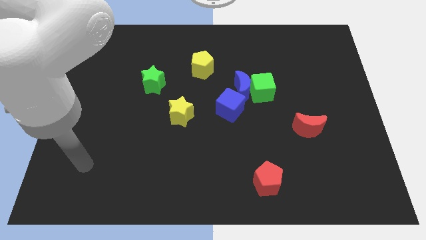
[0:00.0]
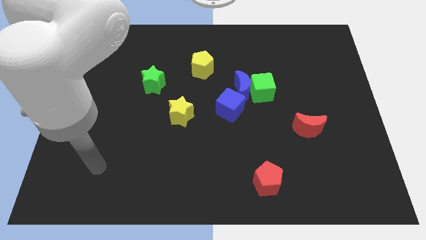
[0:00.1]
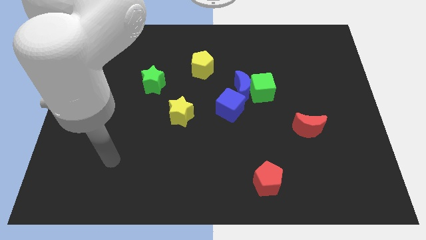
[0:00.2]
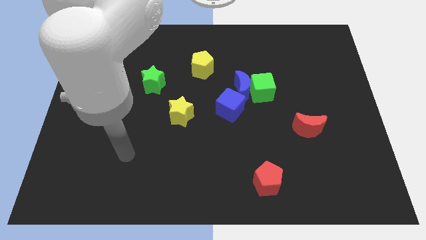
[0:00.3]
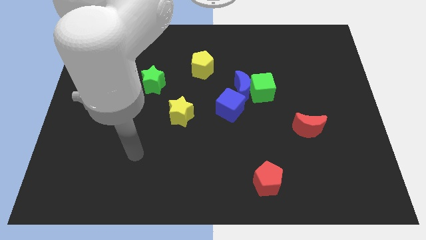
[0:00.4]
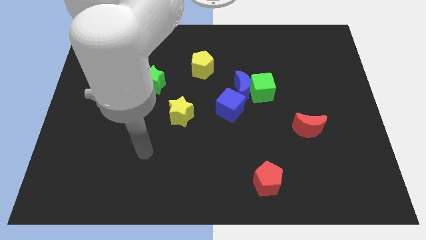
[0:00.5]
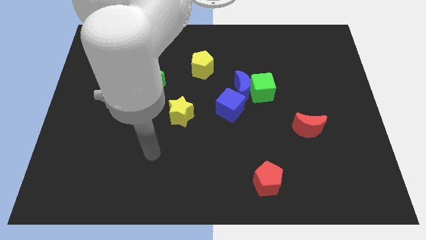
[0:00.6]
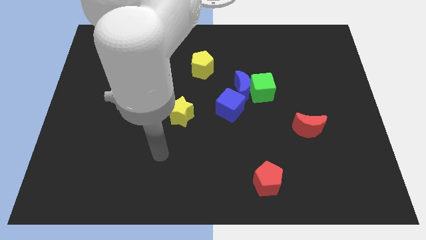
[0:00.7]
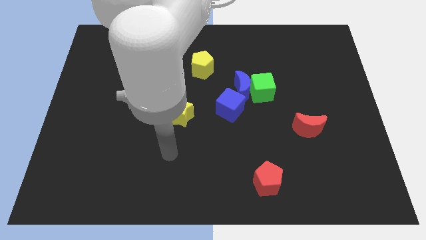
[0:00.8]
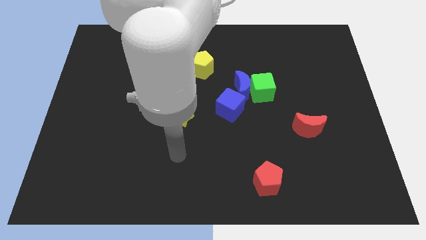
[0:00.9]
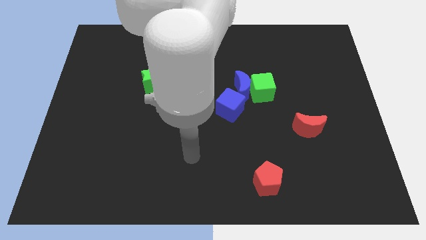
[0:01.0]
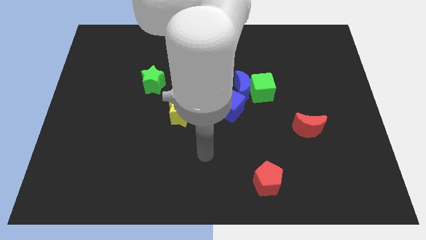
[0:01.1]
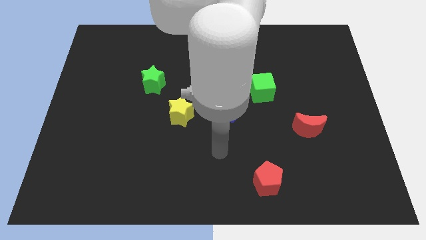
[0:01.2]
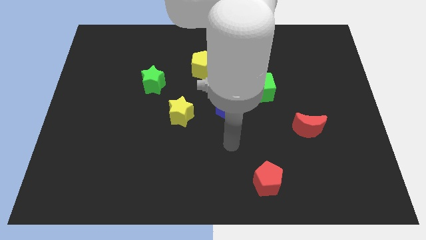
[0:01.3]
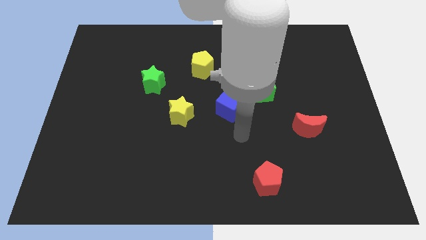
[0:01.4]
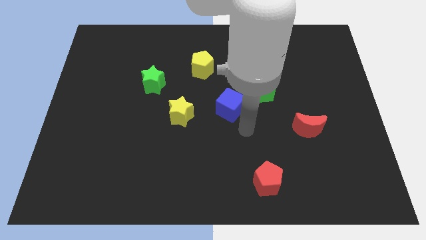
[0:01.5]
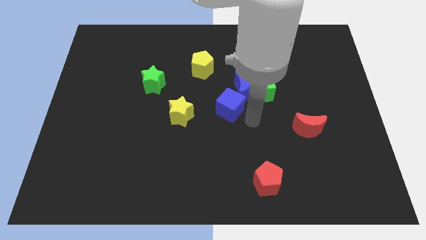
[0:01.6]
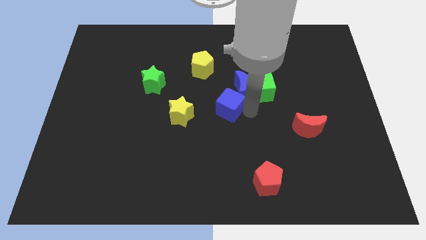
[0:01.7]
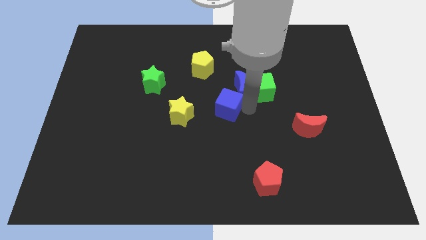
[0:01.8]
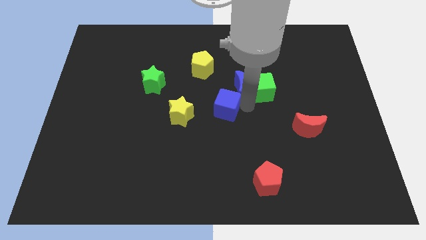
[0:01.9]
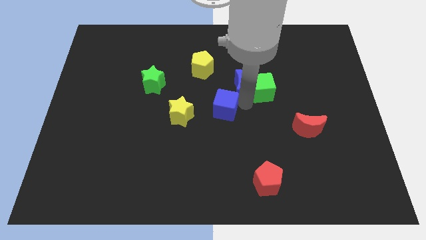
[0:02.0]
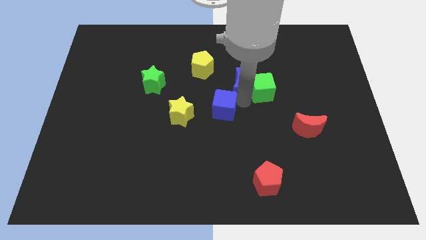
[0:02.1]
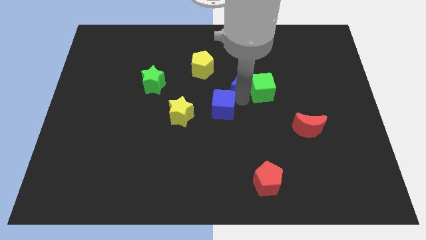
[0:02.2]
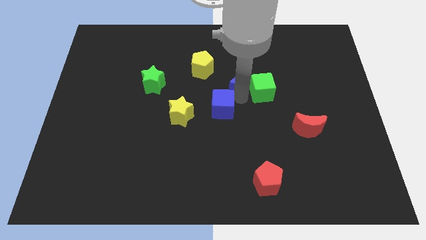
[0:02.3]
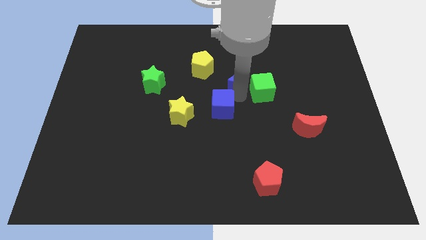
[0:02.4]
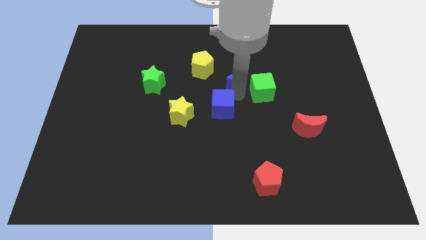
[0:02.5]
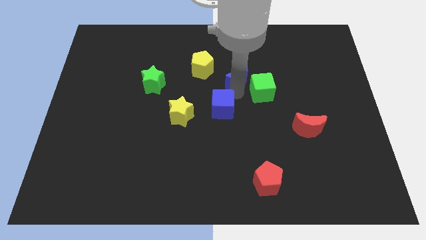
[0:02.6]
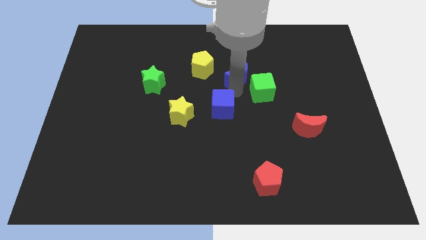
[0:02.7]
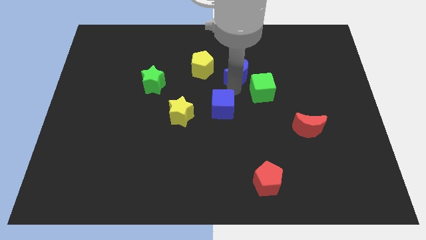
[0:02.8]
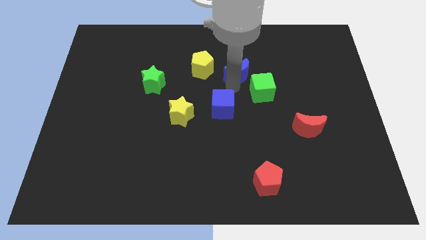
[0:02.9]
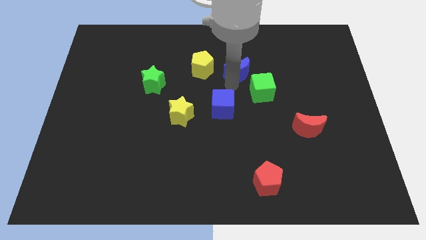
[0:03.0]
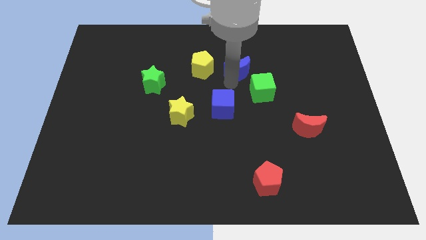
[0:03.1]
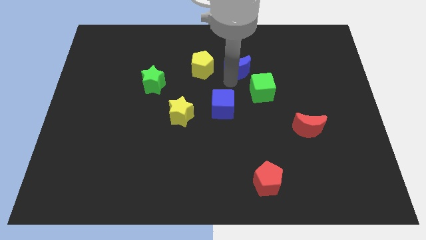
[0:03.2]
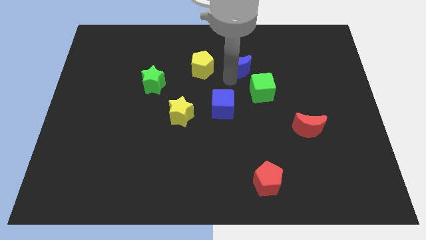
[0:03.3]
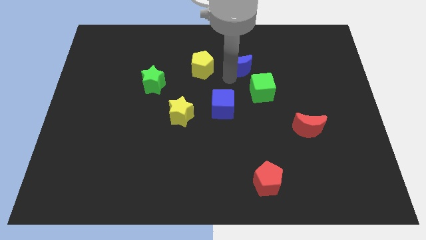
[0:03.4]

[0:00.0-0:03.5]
pull the blue moon apart from the green cube and blue cube

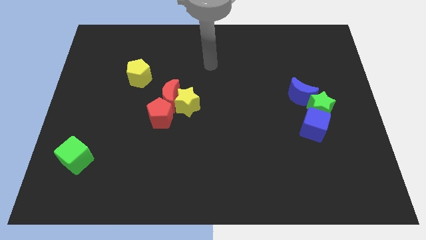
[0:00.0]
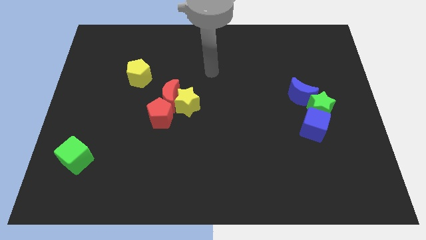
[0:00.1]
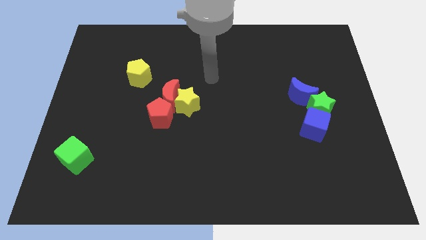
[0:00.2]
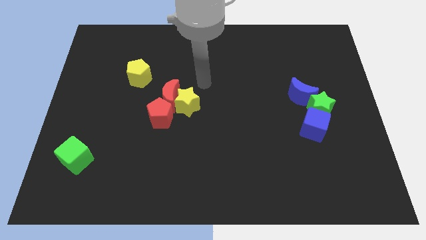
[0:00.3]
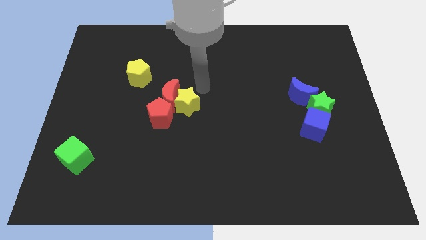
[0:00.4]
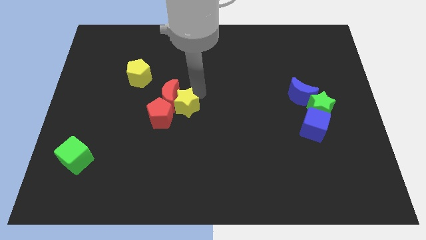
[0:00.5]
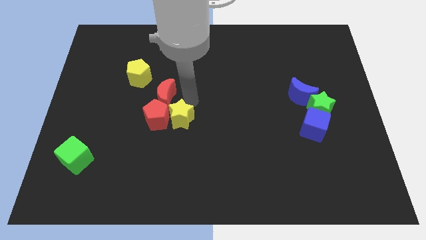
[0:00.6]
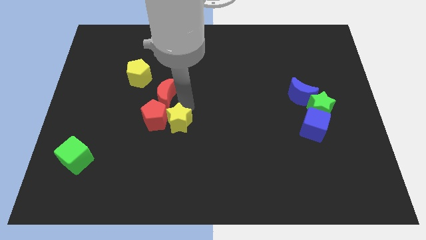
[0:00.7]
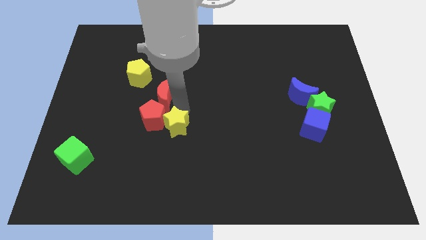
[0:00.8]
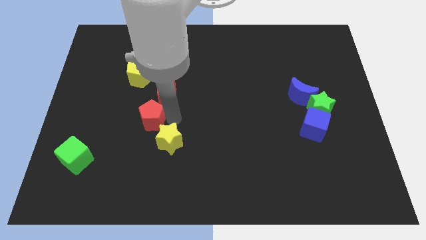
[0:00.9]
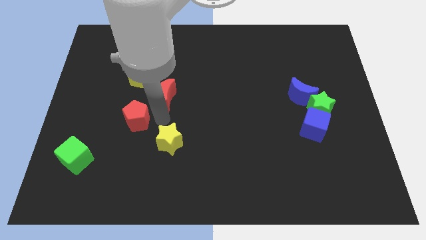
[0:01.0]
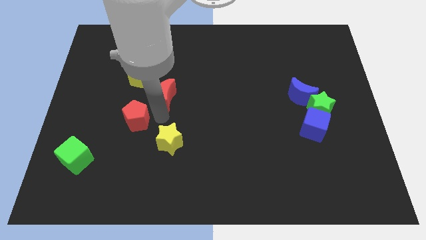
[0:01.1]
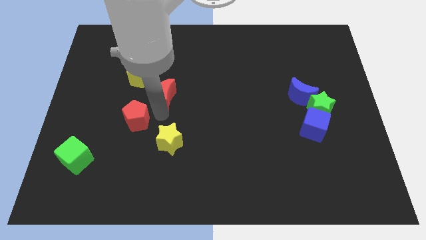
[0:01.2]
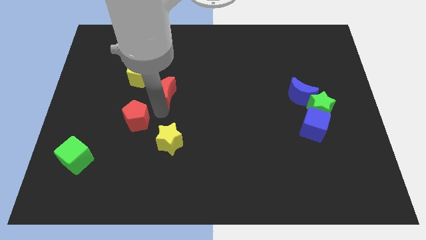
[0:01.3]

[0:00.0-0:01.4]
move the red moon away from the yellow star and red pentagon

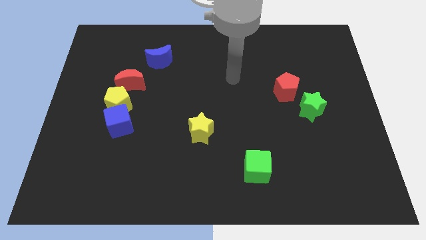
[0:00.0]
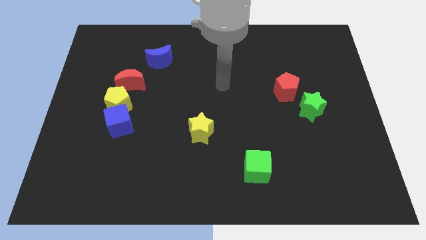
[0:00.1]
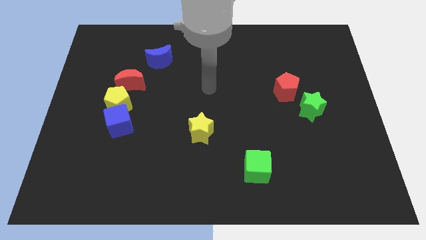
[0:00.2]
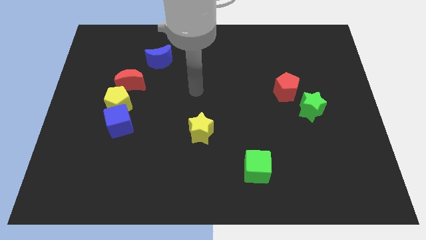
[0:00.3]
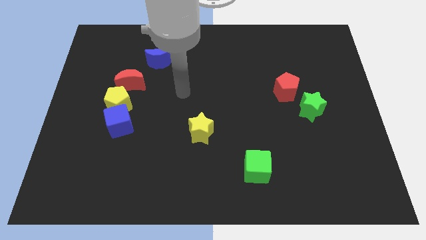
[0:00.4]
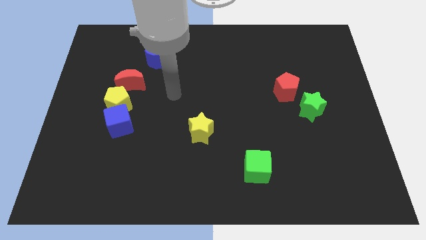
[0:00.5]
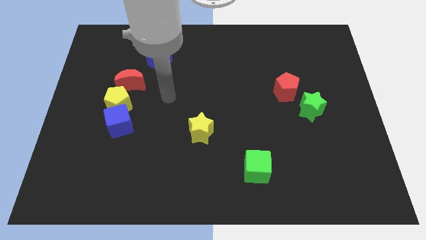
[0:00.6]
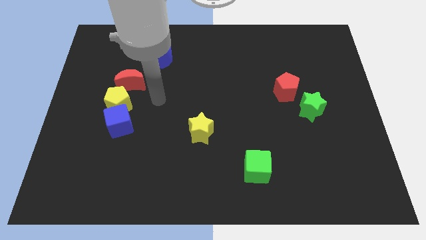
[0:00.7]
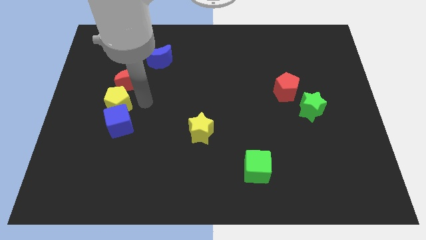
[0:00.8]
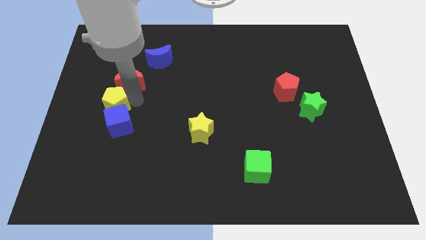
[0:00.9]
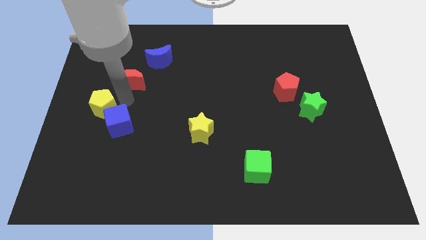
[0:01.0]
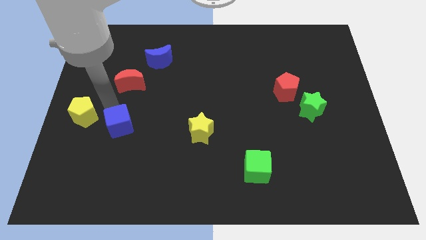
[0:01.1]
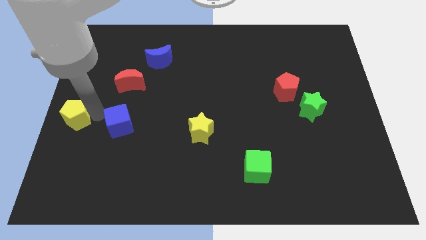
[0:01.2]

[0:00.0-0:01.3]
move the blue cube away from the yellow pentagon

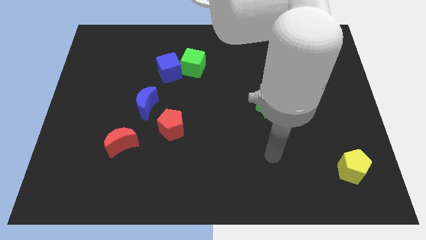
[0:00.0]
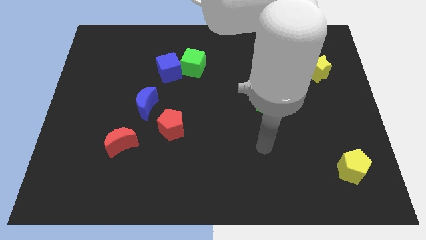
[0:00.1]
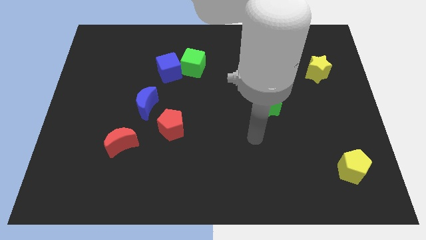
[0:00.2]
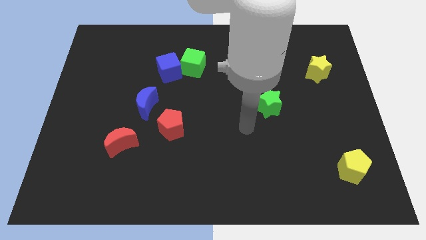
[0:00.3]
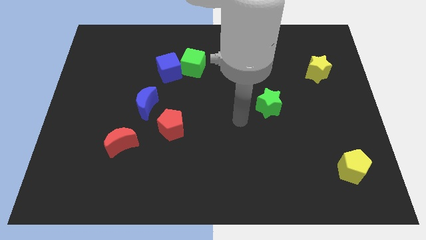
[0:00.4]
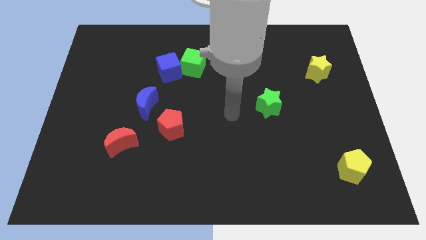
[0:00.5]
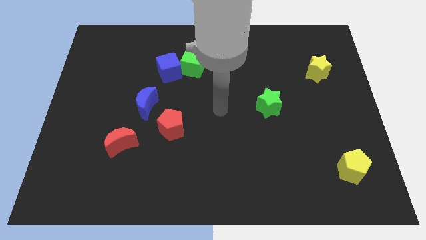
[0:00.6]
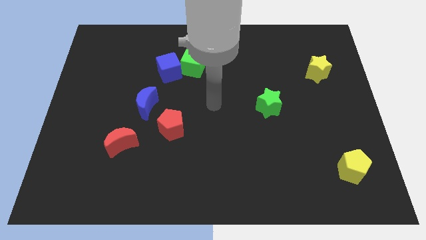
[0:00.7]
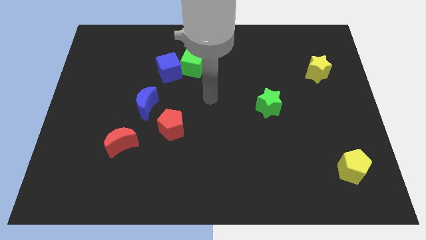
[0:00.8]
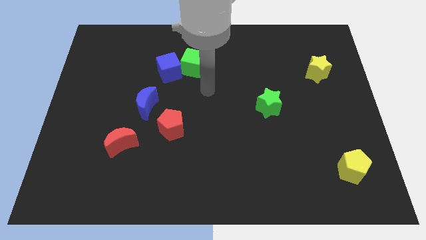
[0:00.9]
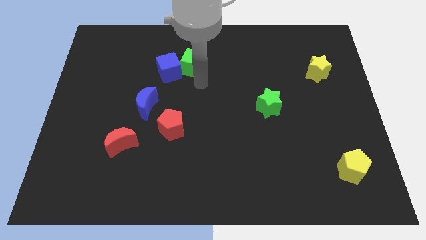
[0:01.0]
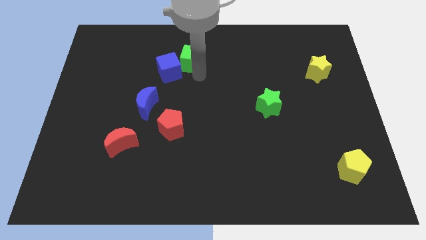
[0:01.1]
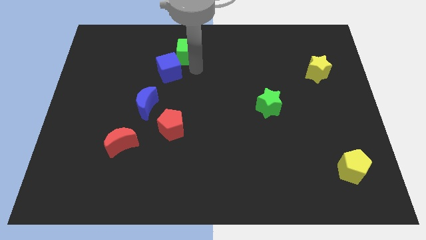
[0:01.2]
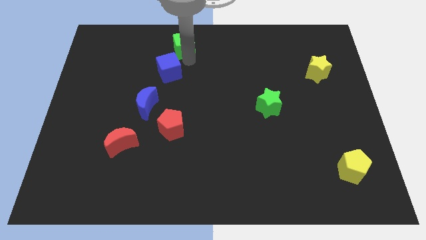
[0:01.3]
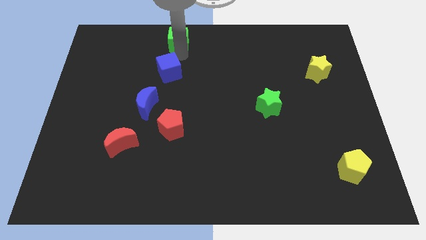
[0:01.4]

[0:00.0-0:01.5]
pull the blue cube apart from the green cube

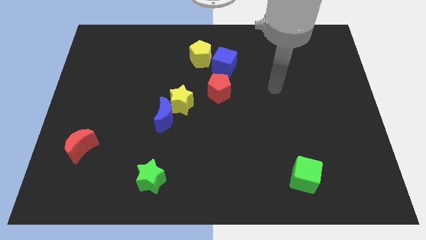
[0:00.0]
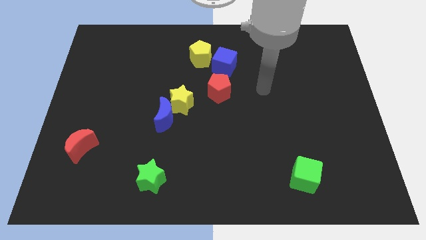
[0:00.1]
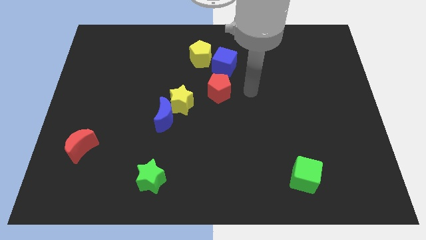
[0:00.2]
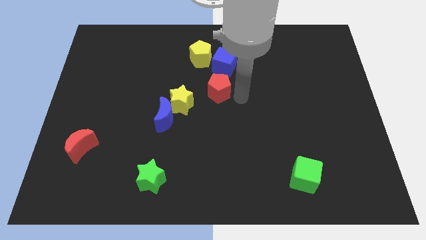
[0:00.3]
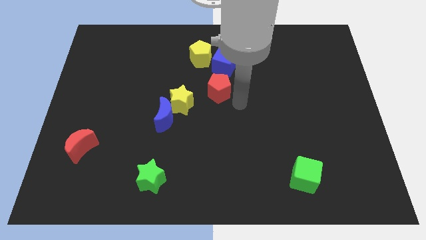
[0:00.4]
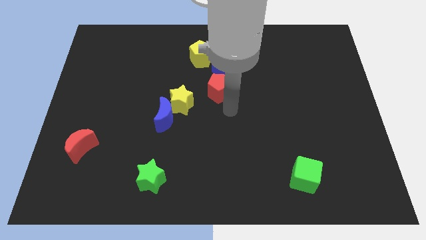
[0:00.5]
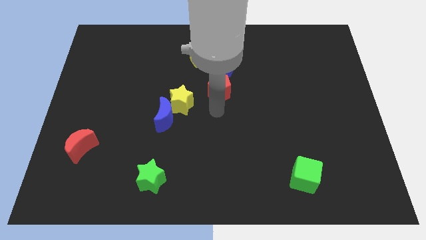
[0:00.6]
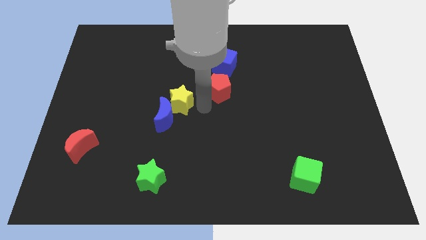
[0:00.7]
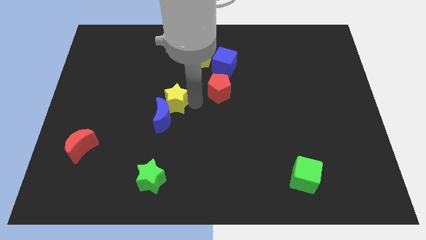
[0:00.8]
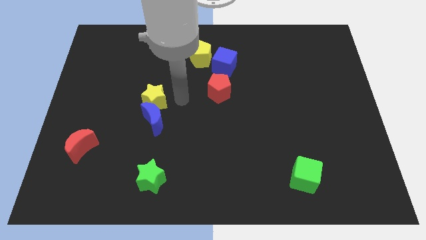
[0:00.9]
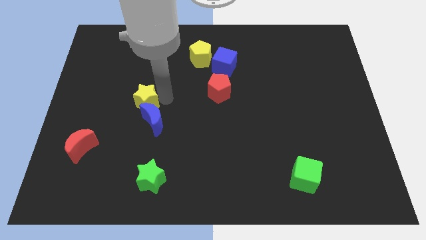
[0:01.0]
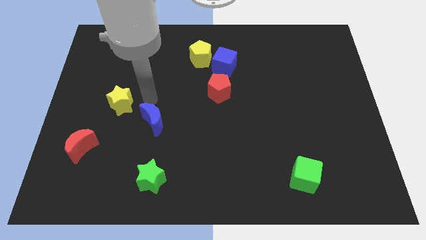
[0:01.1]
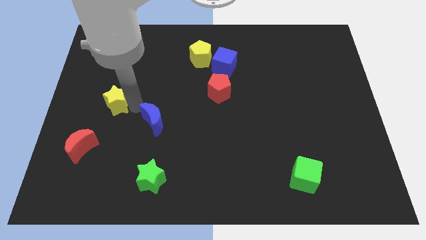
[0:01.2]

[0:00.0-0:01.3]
separate the blue moon from the yellow star

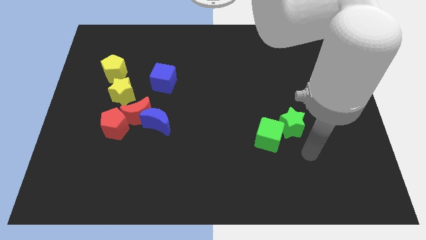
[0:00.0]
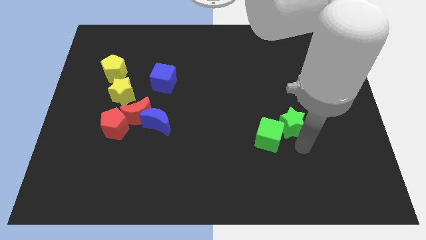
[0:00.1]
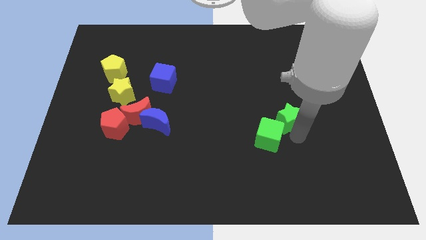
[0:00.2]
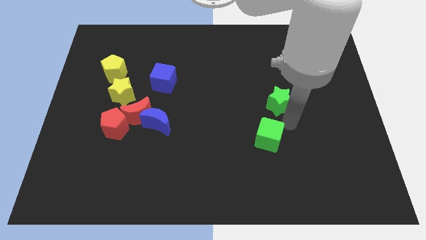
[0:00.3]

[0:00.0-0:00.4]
move the green cube away from the green star
